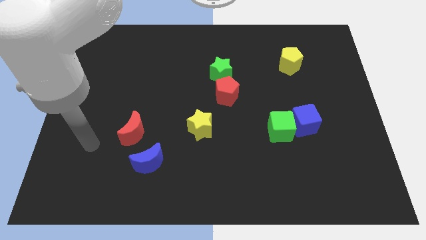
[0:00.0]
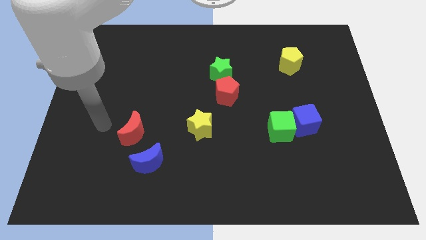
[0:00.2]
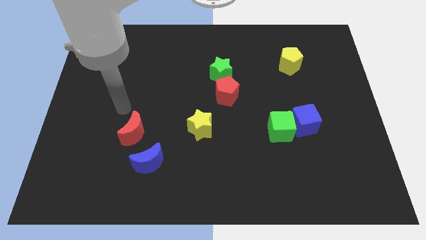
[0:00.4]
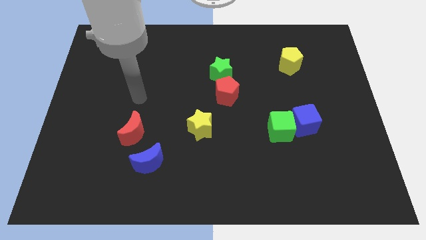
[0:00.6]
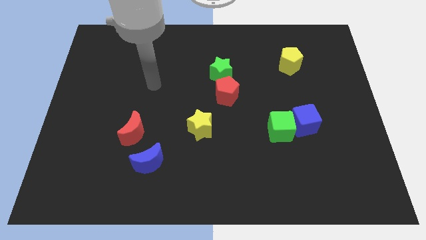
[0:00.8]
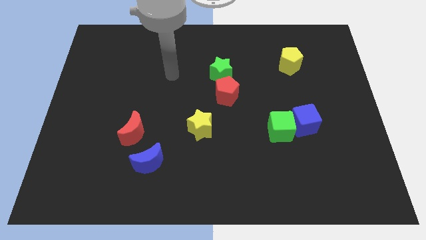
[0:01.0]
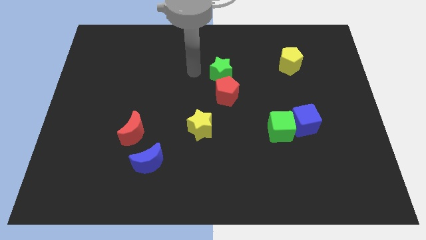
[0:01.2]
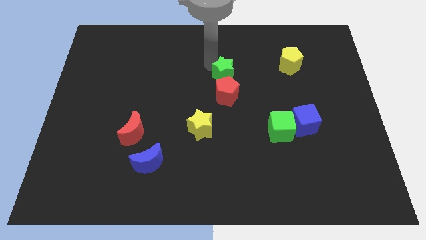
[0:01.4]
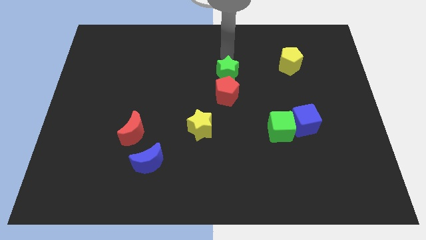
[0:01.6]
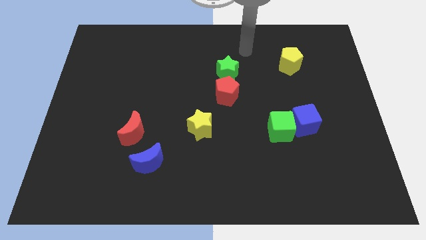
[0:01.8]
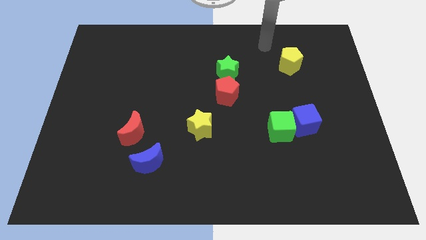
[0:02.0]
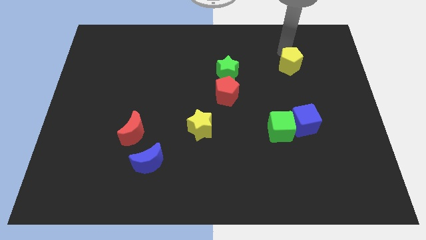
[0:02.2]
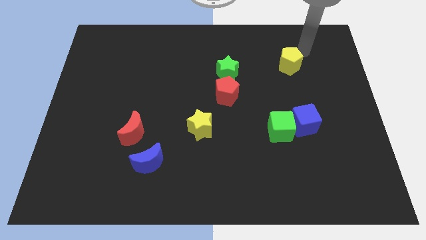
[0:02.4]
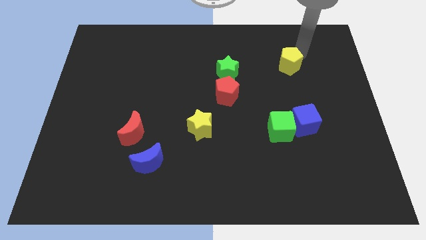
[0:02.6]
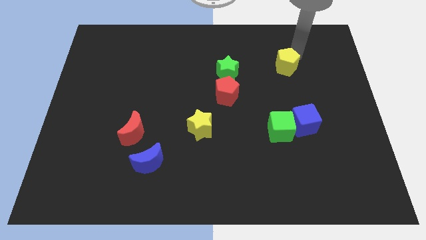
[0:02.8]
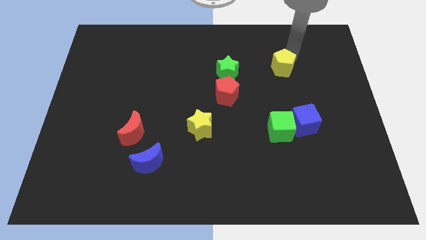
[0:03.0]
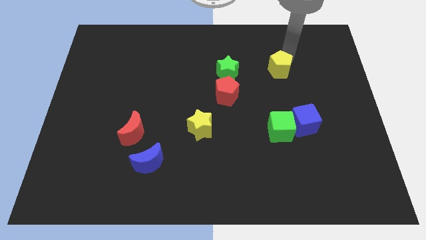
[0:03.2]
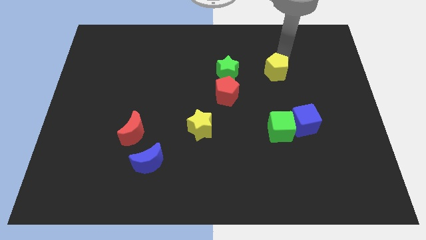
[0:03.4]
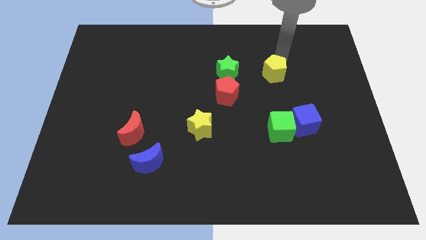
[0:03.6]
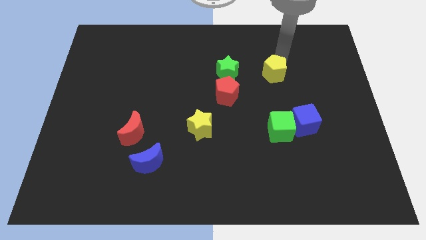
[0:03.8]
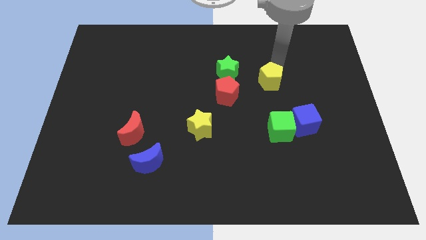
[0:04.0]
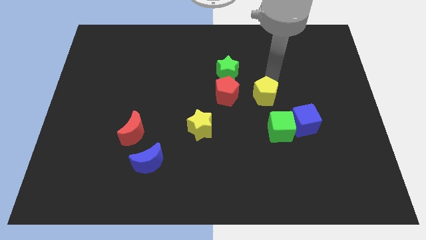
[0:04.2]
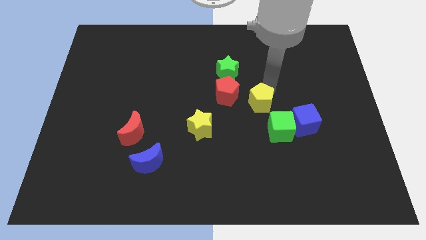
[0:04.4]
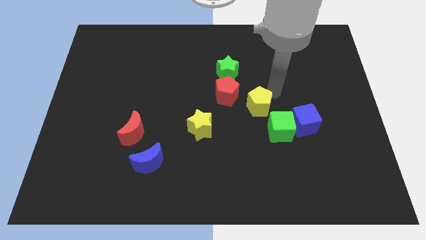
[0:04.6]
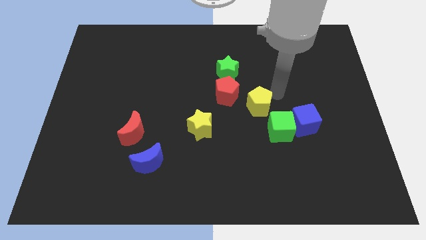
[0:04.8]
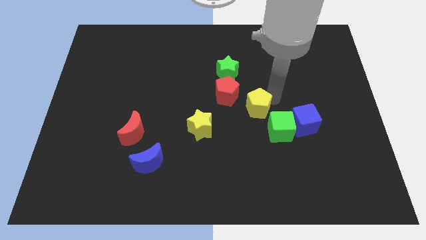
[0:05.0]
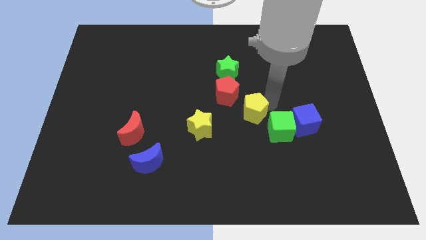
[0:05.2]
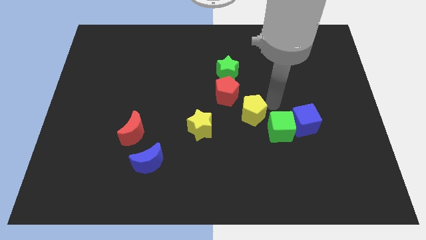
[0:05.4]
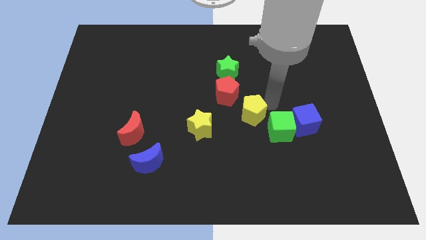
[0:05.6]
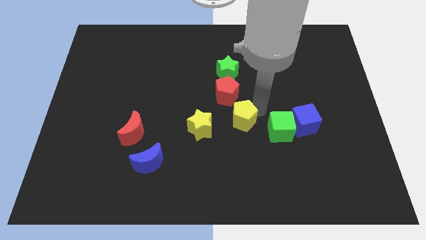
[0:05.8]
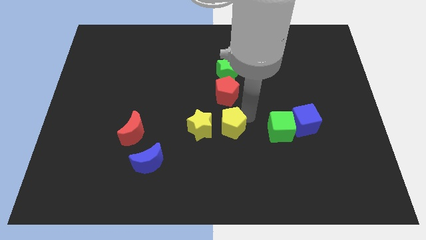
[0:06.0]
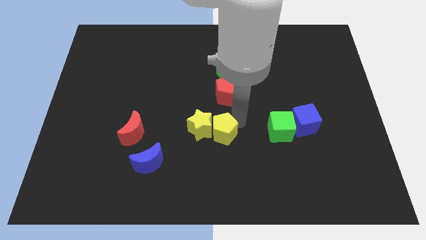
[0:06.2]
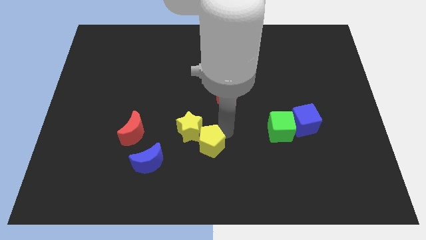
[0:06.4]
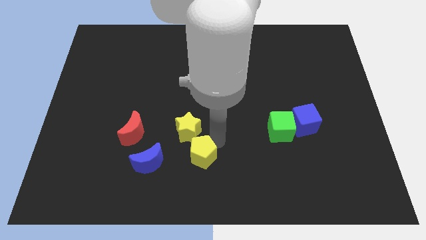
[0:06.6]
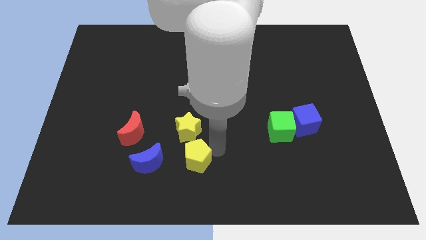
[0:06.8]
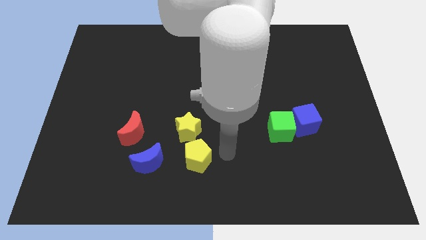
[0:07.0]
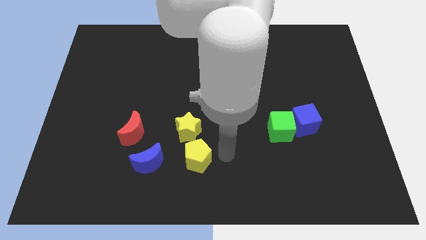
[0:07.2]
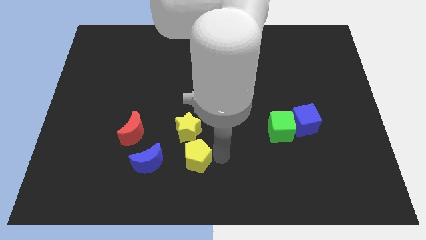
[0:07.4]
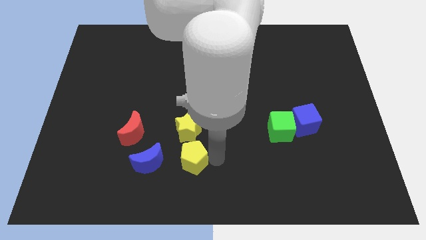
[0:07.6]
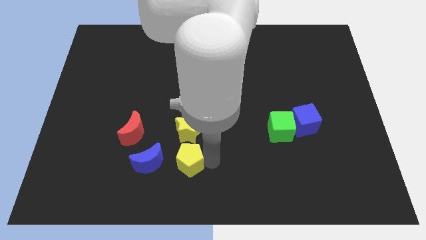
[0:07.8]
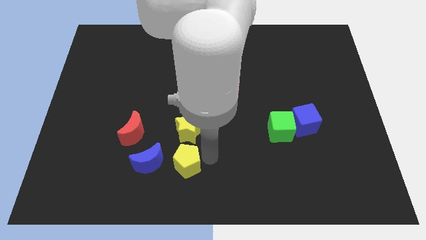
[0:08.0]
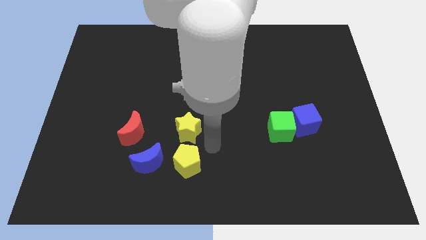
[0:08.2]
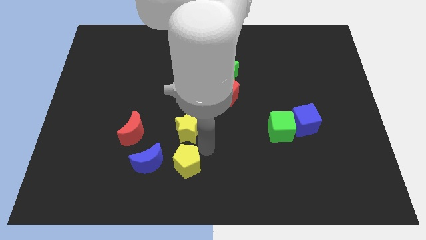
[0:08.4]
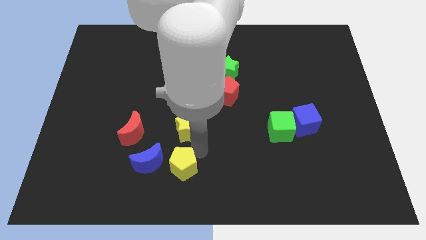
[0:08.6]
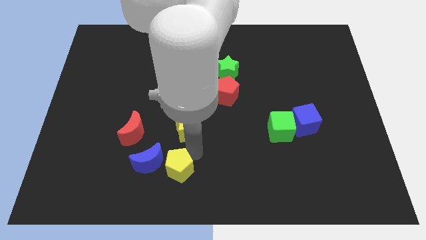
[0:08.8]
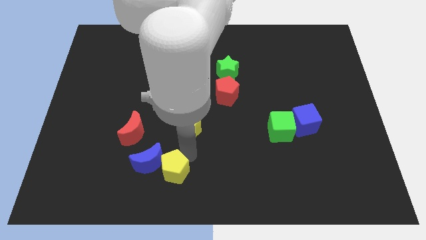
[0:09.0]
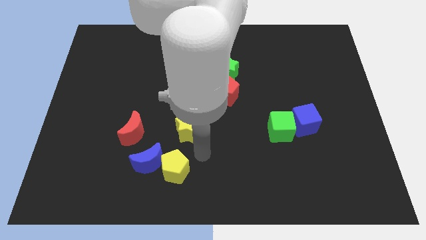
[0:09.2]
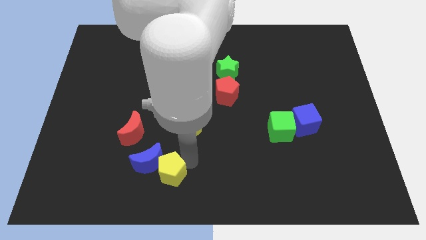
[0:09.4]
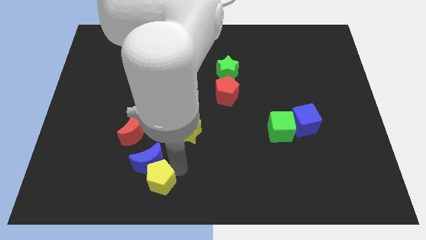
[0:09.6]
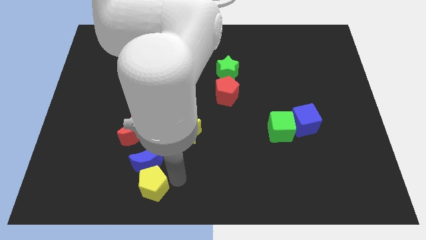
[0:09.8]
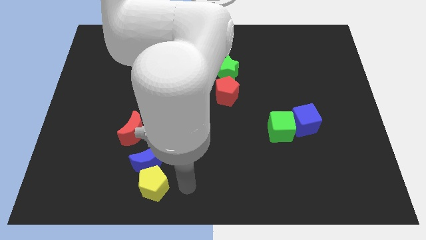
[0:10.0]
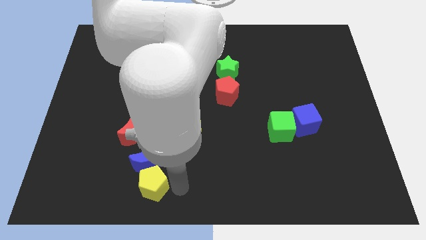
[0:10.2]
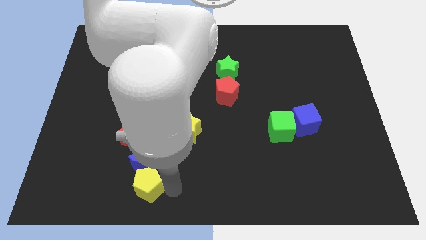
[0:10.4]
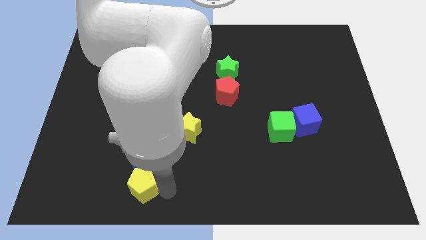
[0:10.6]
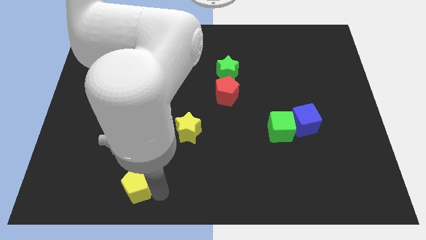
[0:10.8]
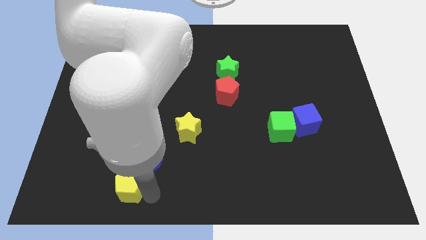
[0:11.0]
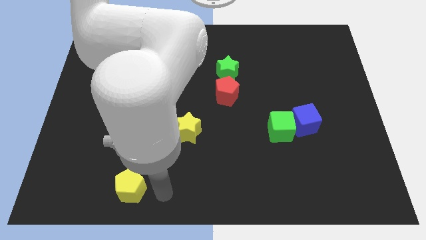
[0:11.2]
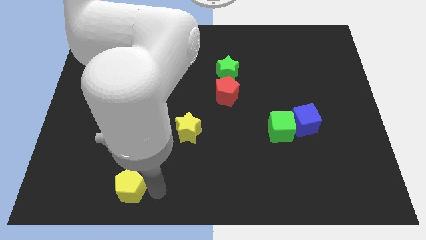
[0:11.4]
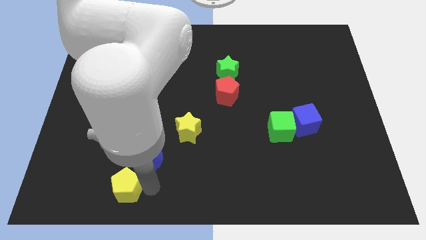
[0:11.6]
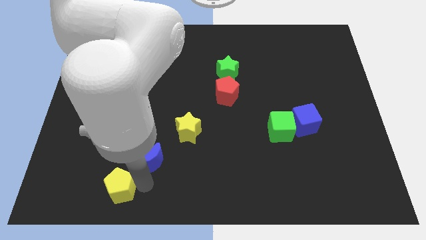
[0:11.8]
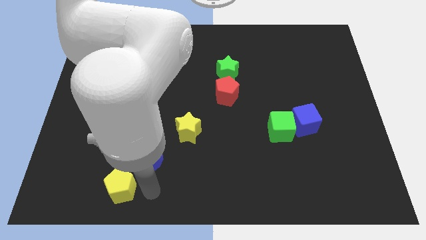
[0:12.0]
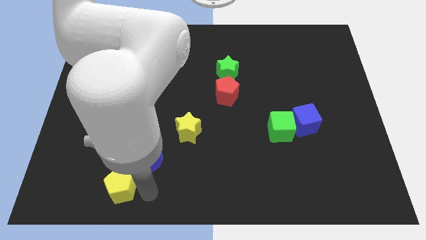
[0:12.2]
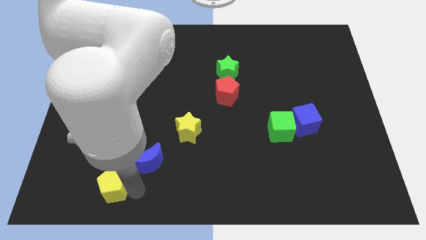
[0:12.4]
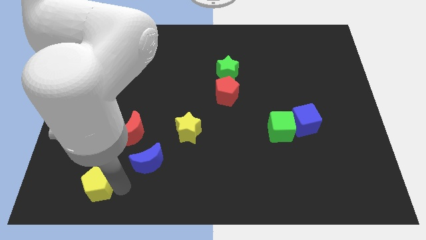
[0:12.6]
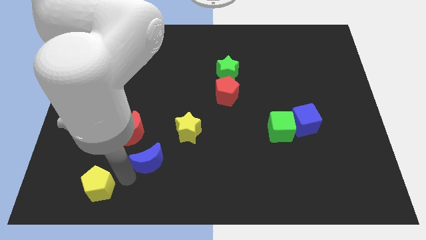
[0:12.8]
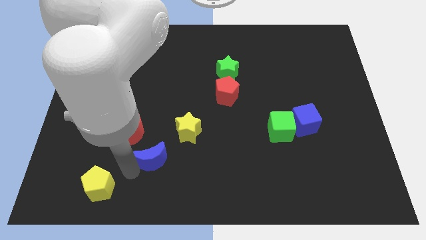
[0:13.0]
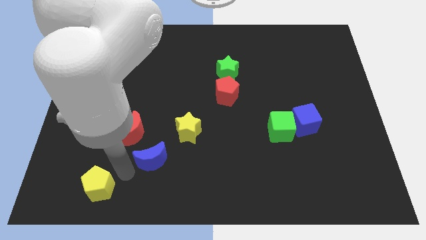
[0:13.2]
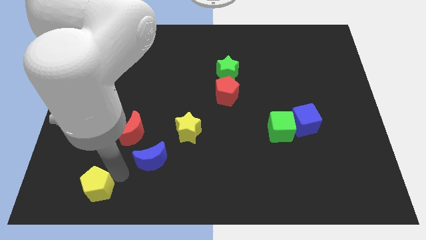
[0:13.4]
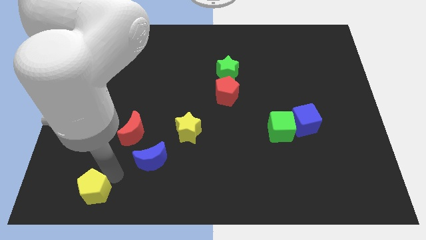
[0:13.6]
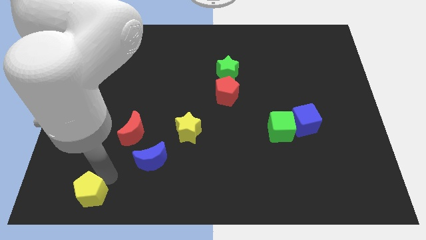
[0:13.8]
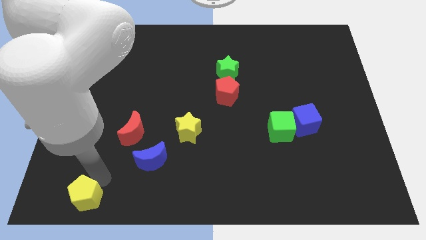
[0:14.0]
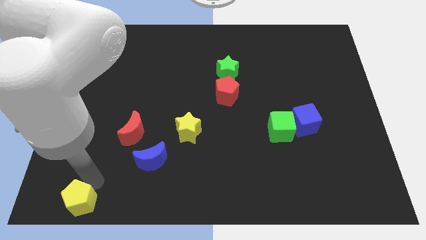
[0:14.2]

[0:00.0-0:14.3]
push the yellow pentagon to the bottom left of the board

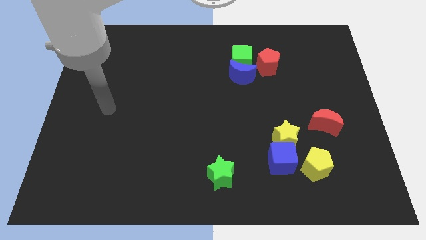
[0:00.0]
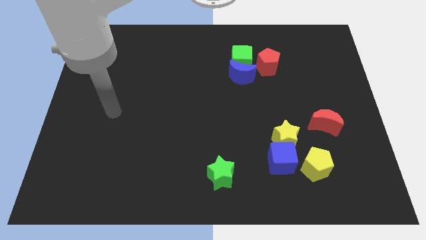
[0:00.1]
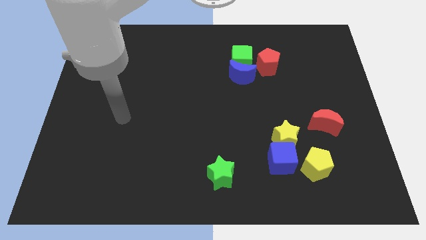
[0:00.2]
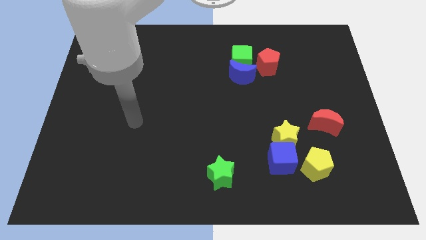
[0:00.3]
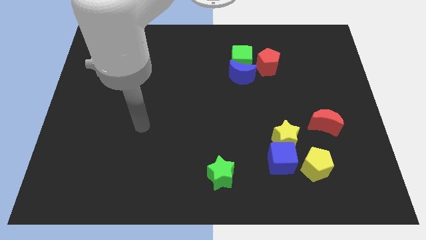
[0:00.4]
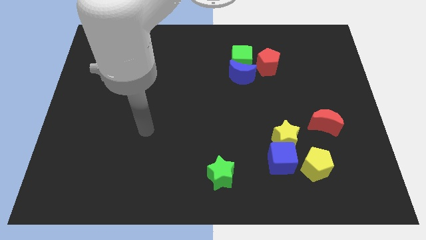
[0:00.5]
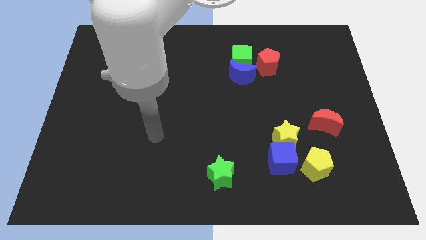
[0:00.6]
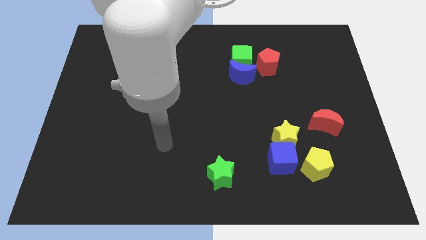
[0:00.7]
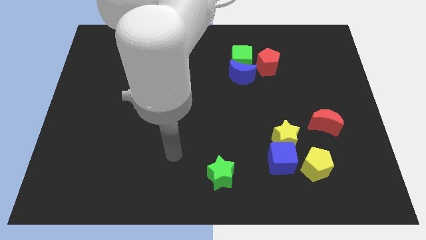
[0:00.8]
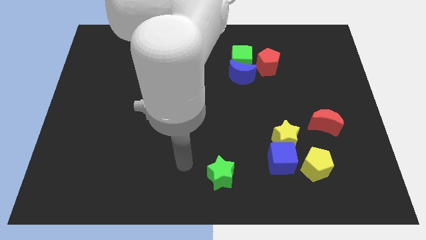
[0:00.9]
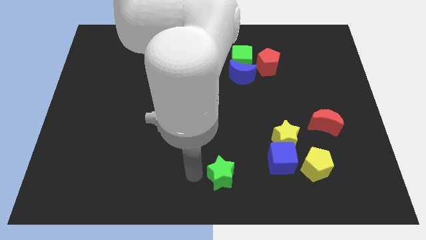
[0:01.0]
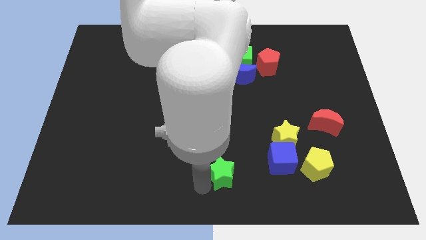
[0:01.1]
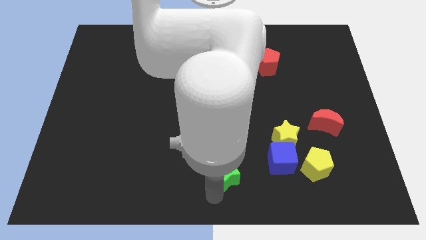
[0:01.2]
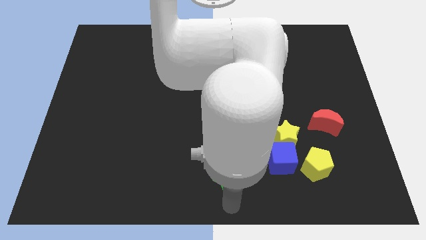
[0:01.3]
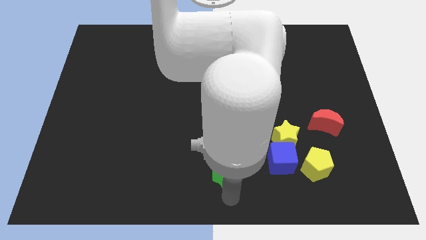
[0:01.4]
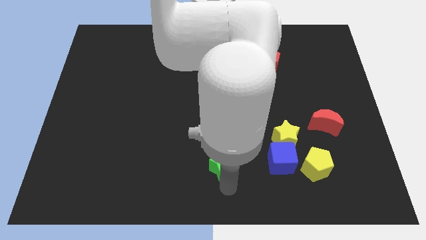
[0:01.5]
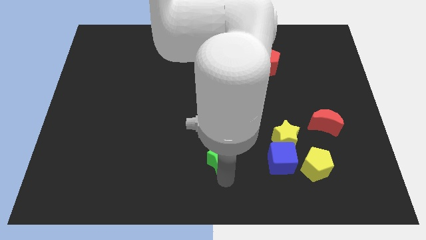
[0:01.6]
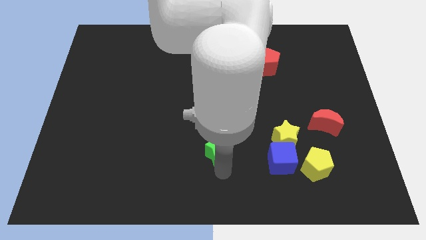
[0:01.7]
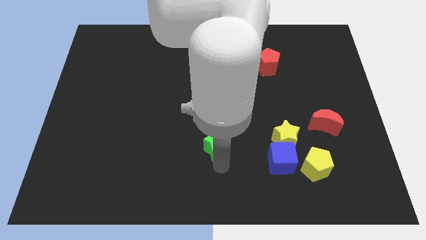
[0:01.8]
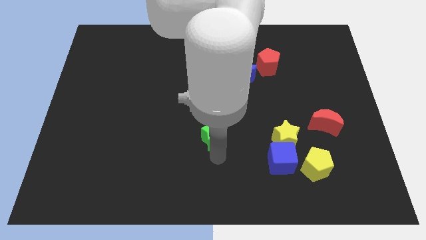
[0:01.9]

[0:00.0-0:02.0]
move the green star to the middle
